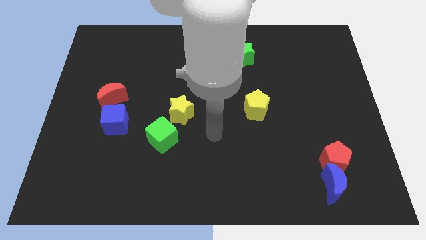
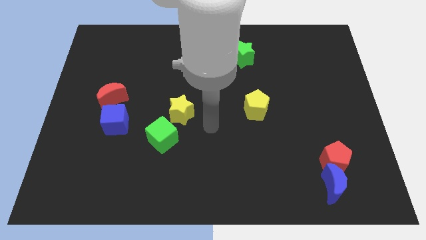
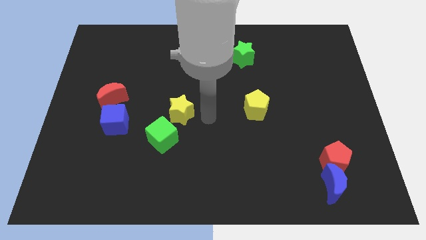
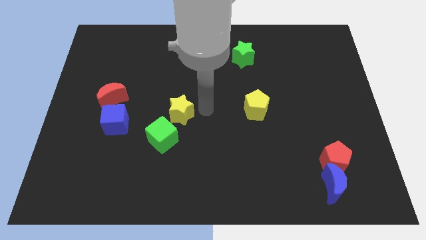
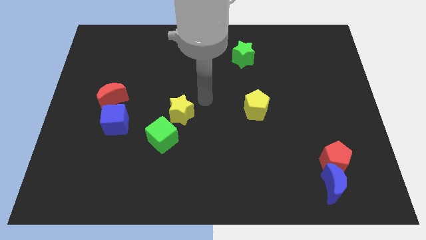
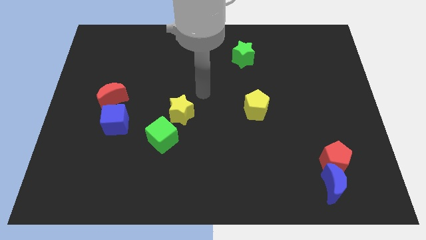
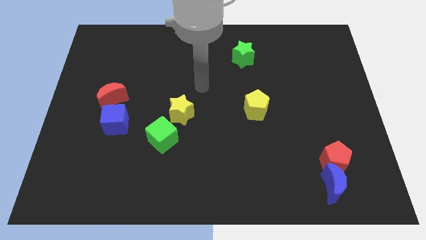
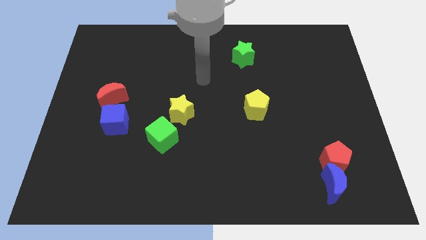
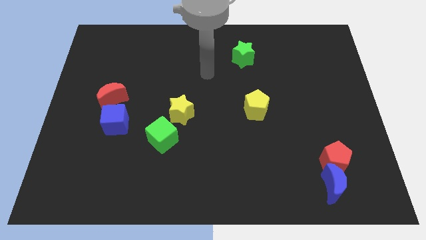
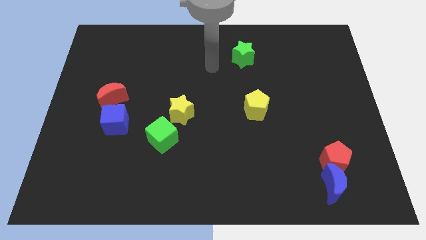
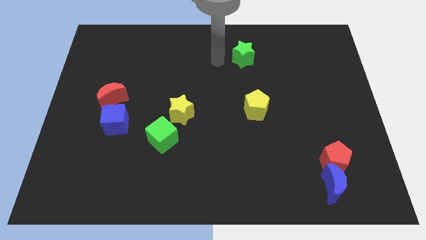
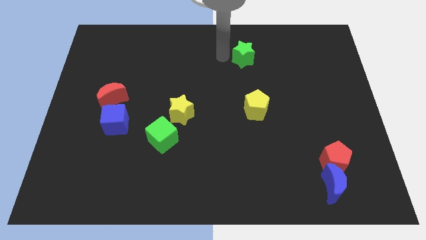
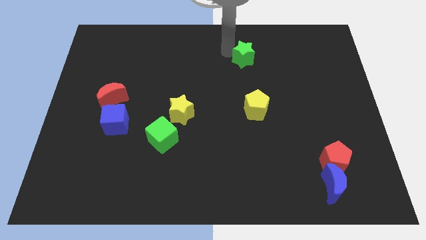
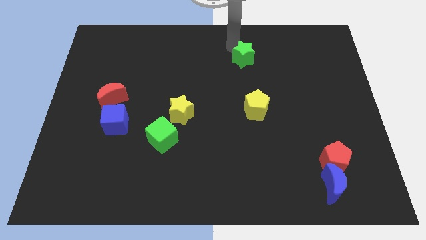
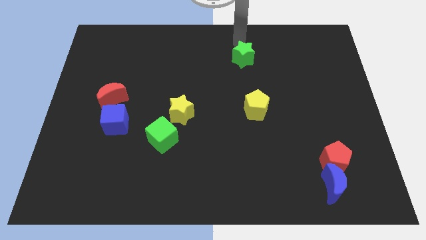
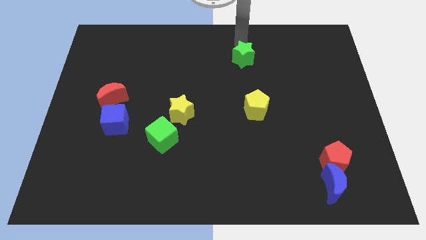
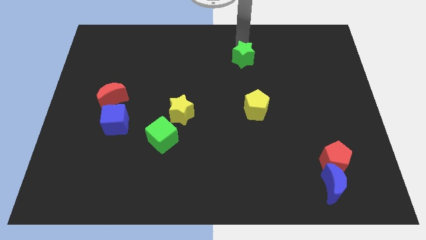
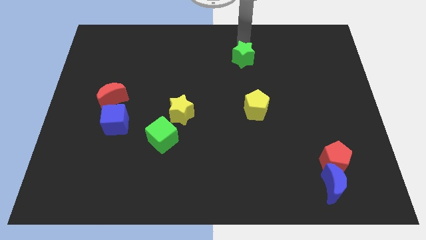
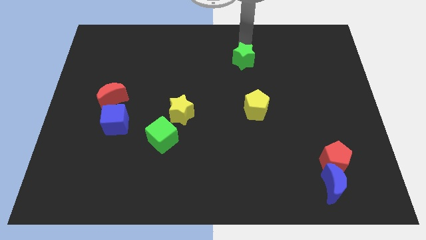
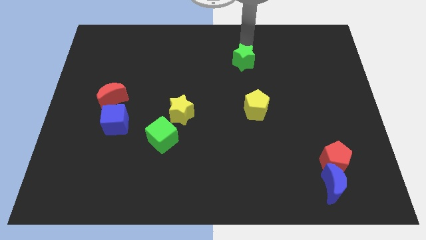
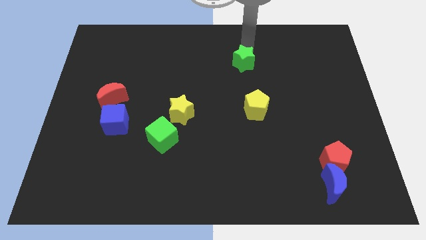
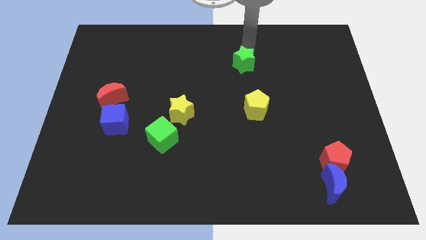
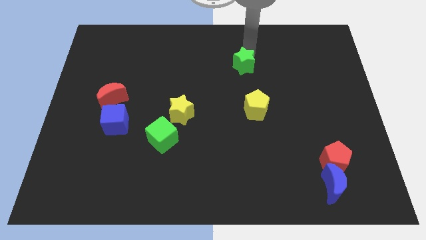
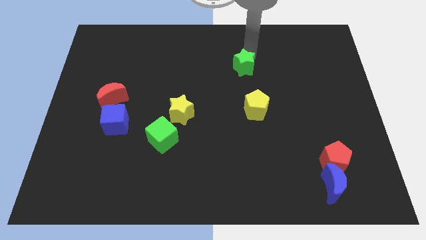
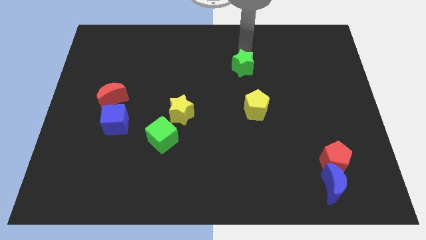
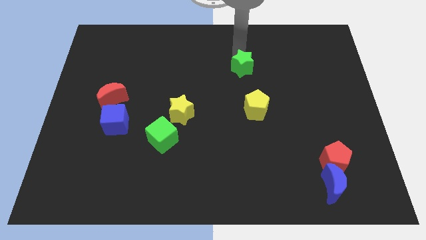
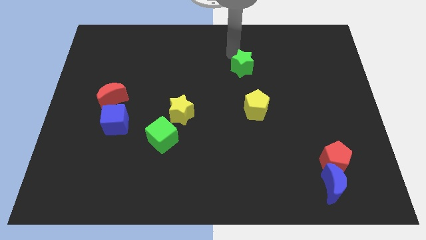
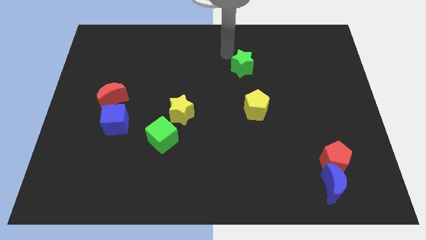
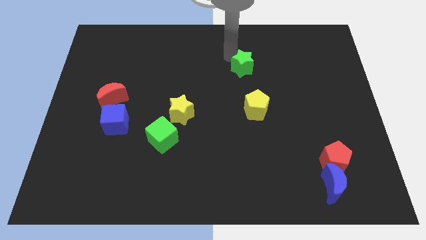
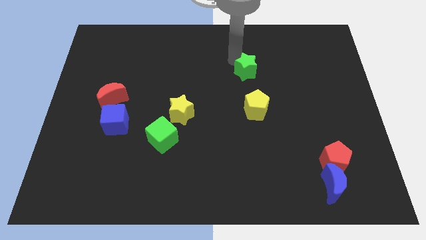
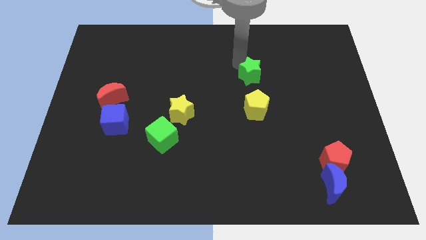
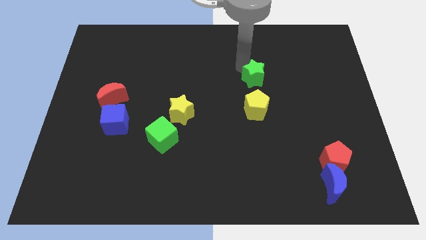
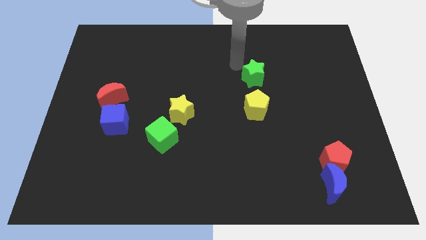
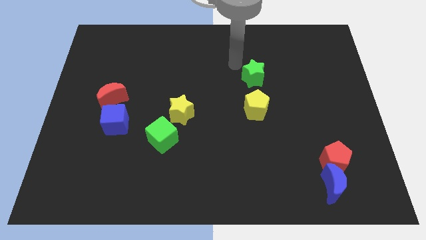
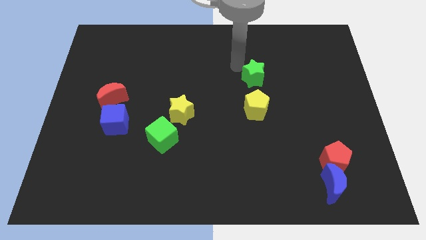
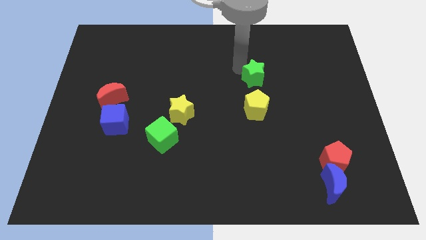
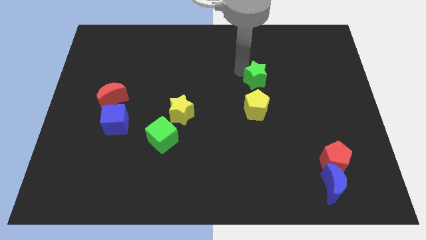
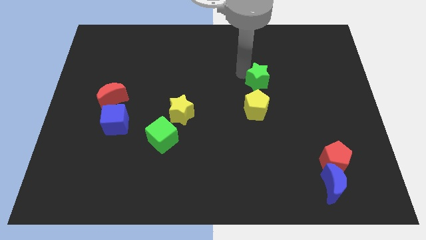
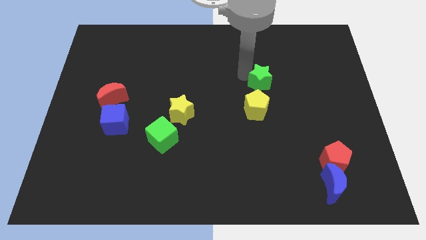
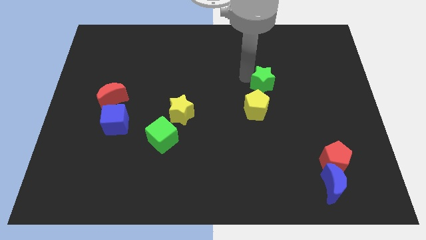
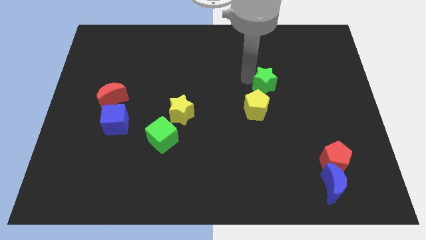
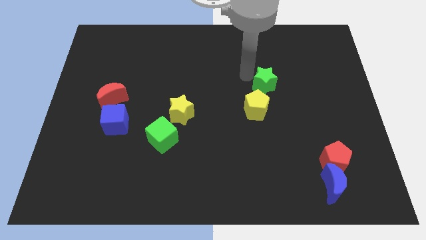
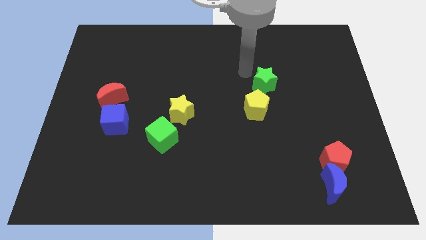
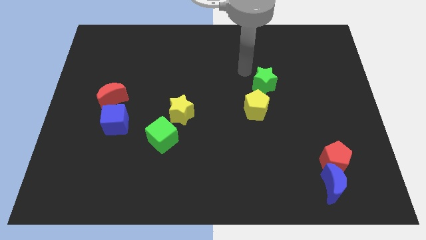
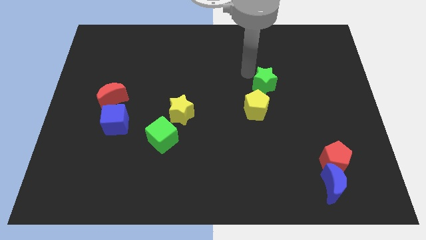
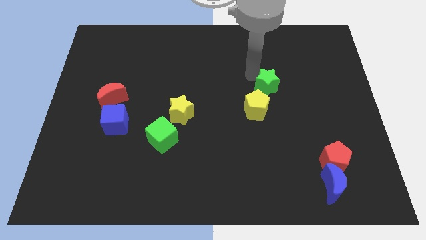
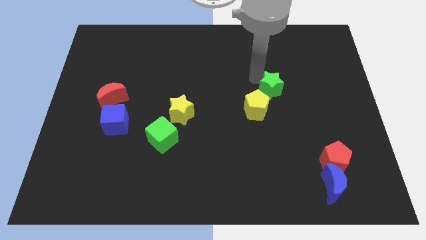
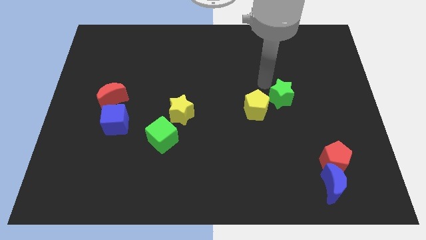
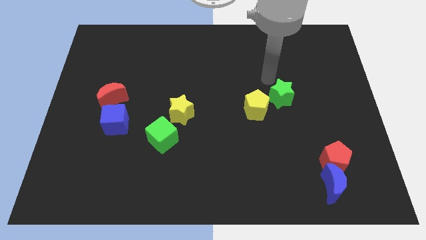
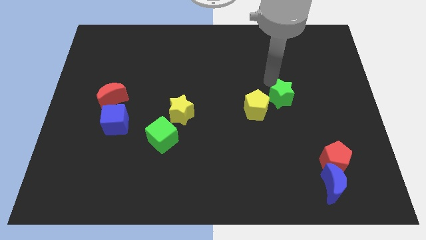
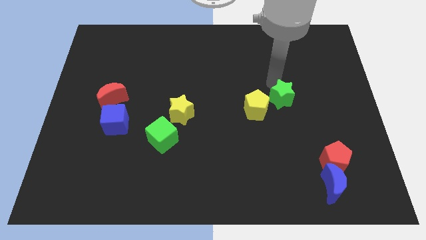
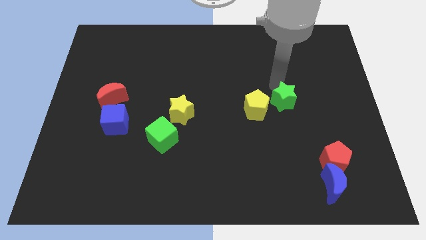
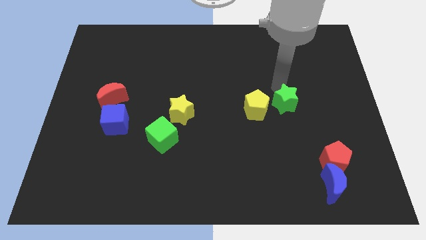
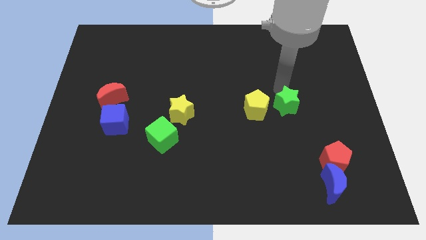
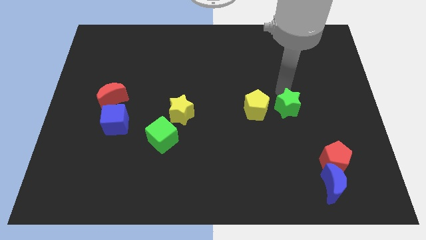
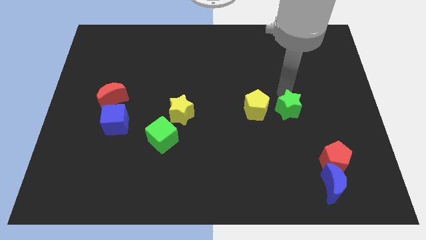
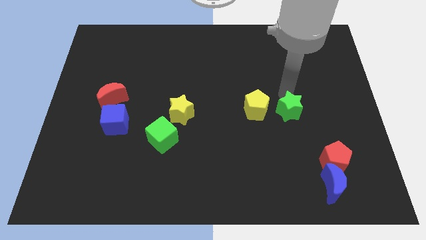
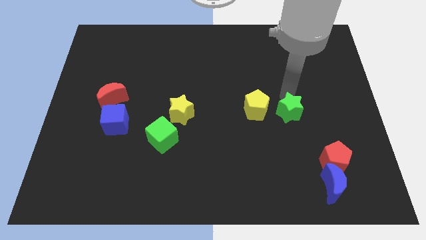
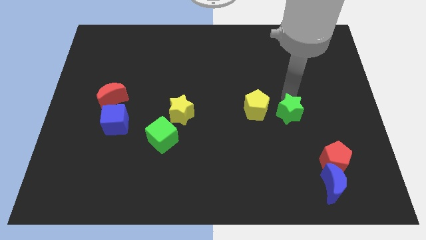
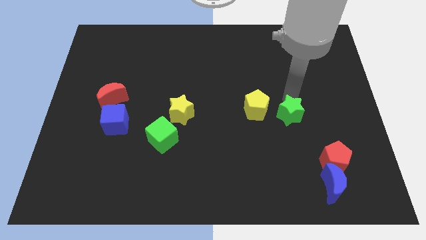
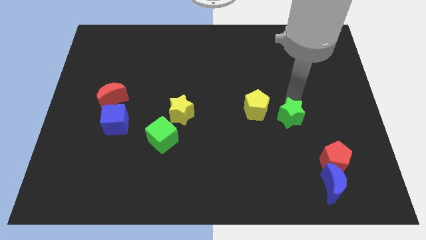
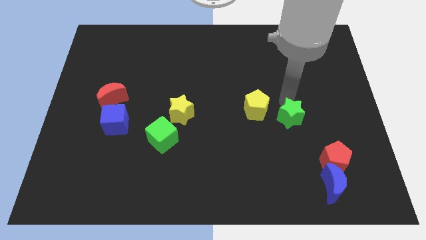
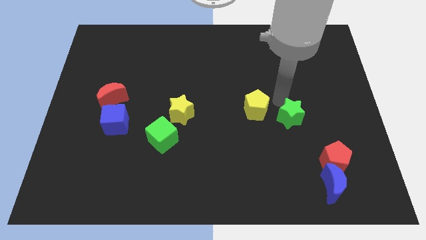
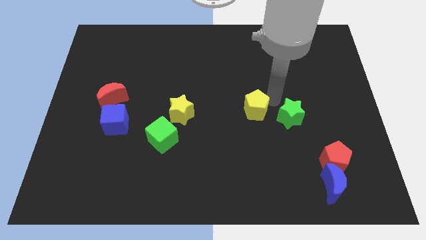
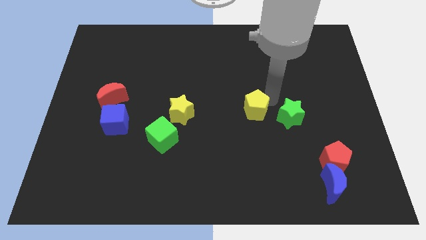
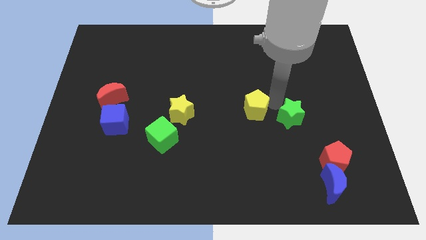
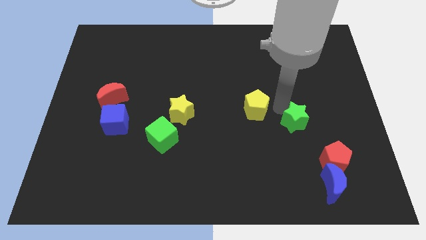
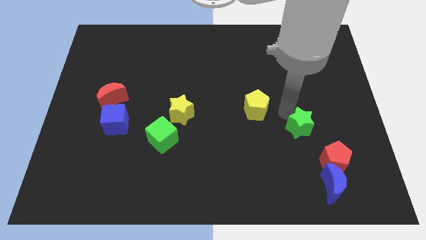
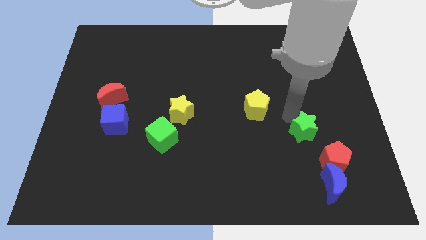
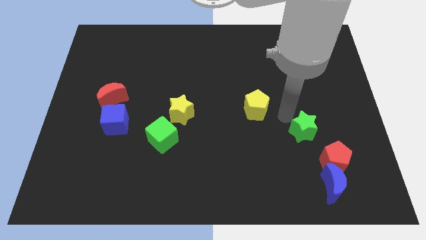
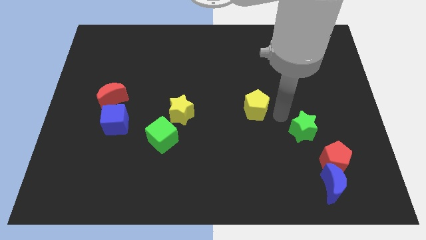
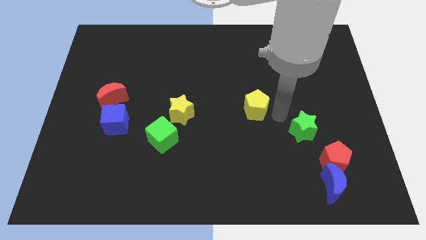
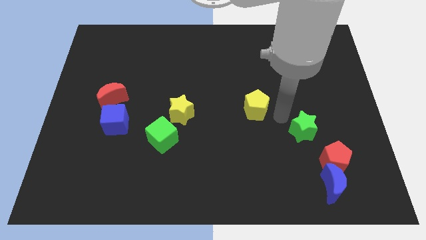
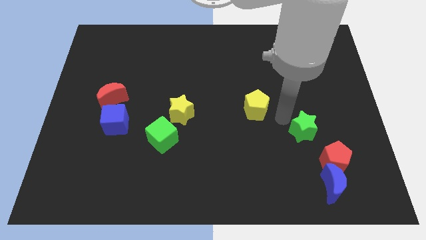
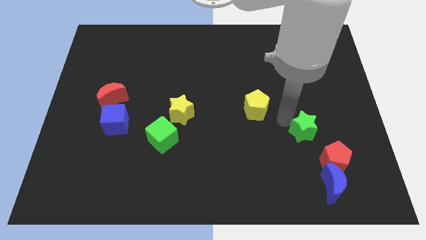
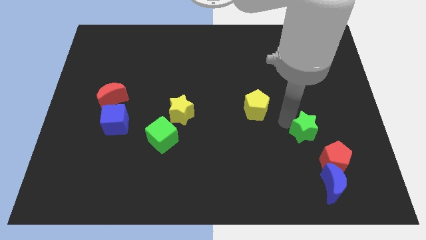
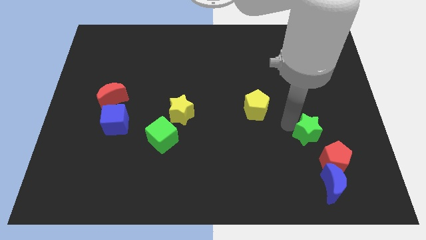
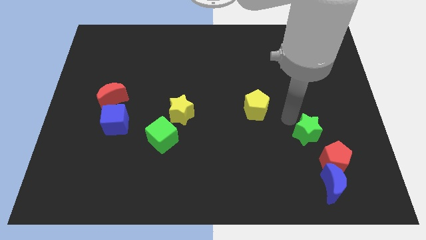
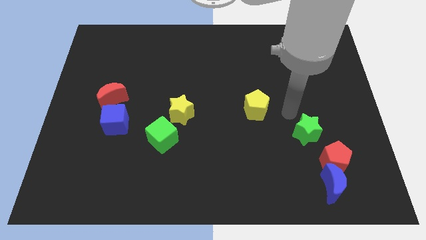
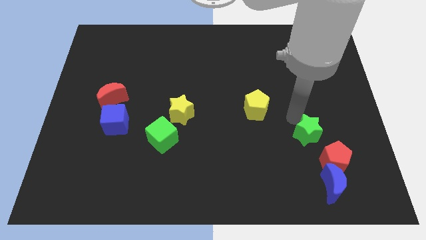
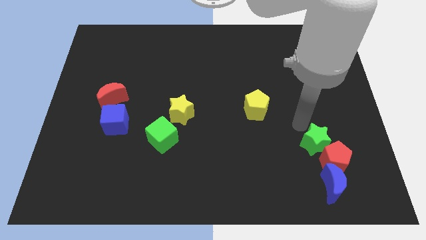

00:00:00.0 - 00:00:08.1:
move the green star towards the red pentagon
